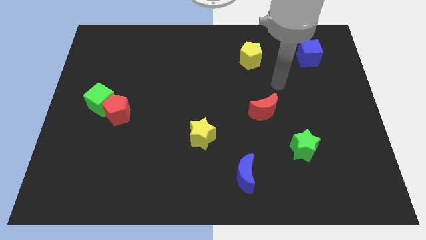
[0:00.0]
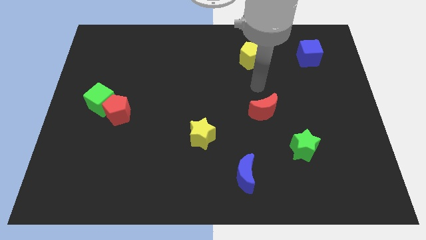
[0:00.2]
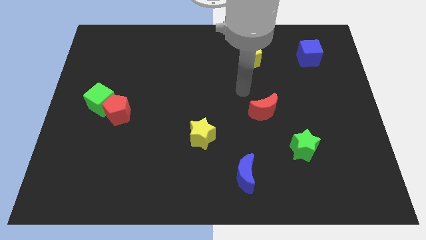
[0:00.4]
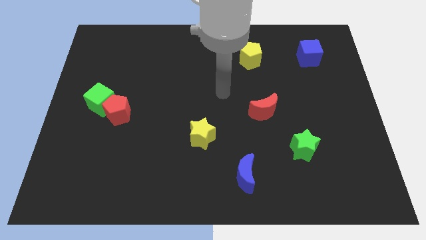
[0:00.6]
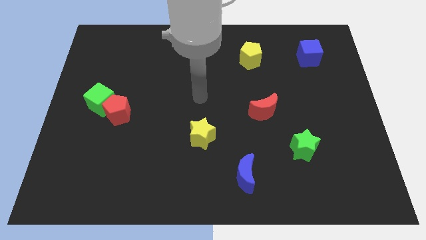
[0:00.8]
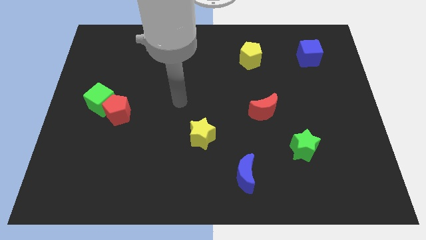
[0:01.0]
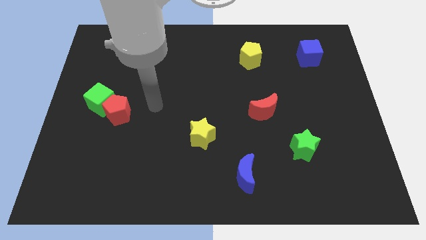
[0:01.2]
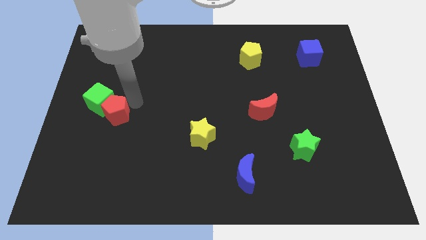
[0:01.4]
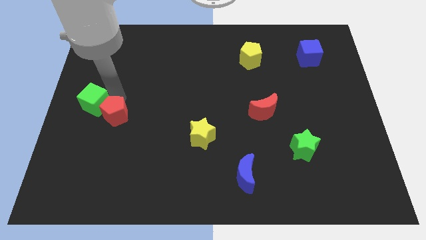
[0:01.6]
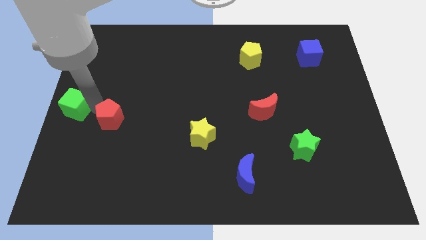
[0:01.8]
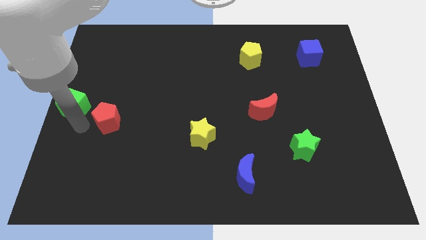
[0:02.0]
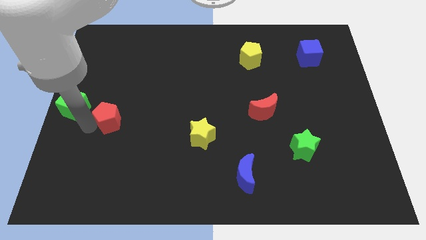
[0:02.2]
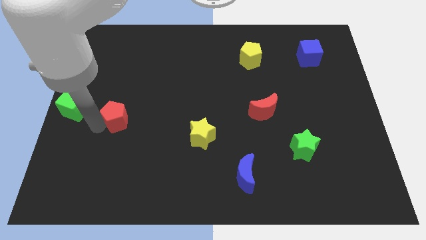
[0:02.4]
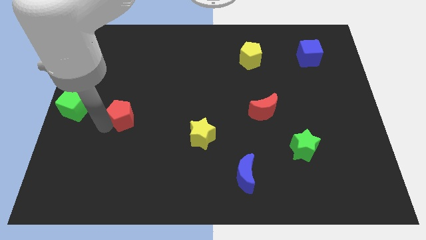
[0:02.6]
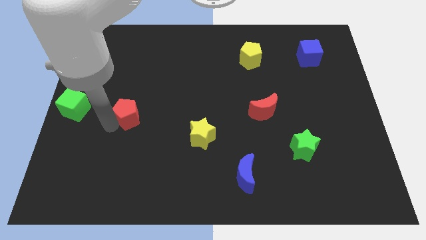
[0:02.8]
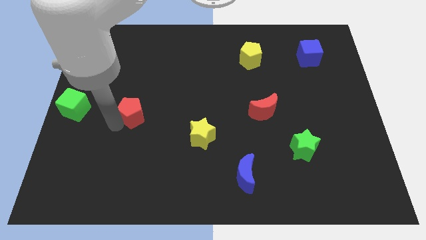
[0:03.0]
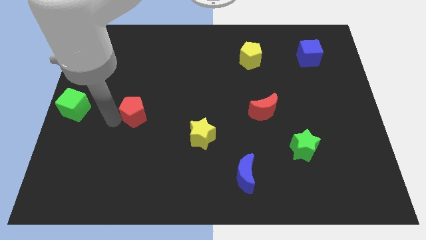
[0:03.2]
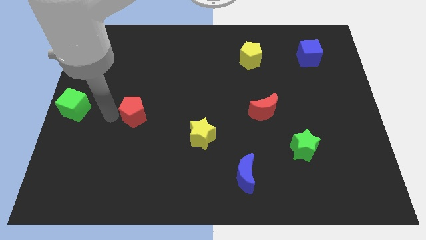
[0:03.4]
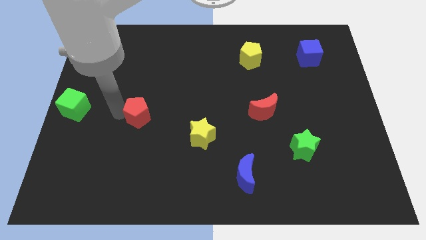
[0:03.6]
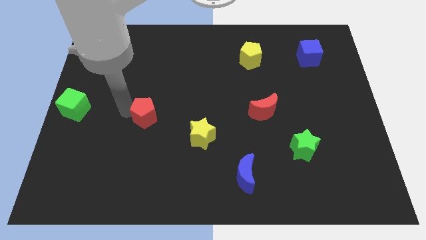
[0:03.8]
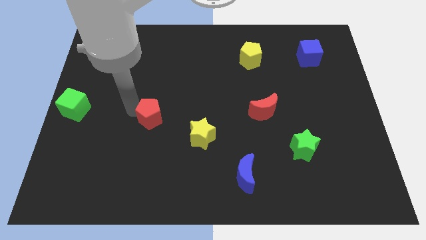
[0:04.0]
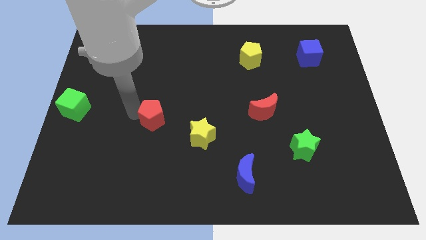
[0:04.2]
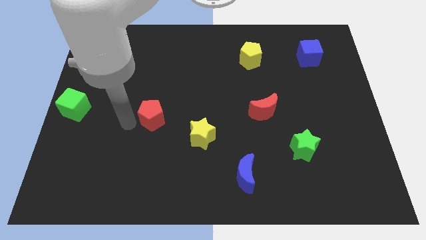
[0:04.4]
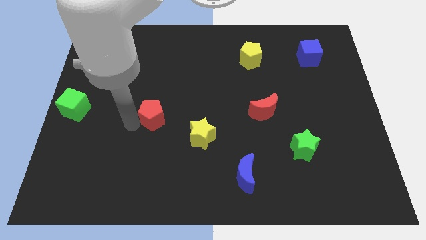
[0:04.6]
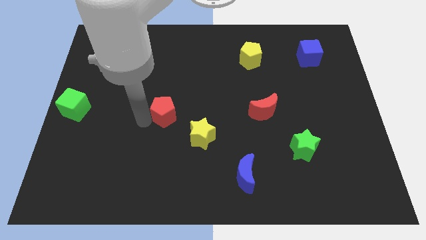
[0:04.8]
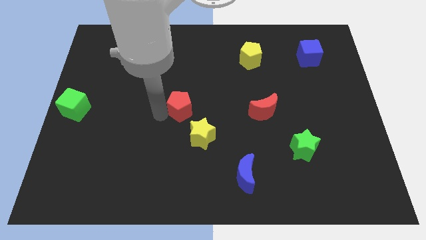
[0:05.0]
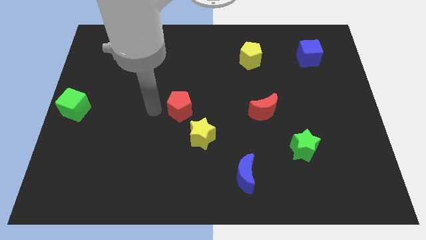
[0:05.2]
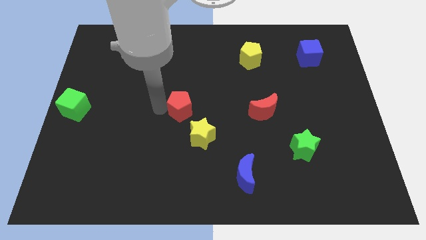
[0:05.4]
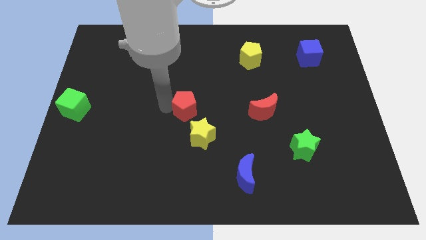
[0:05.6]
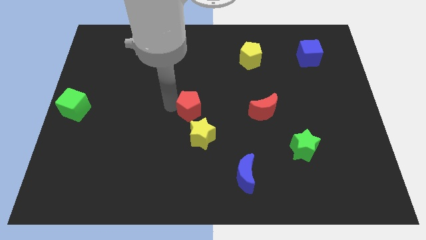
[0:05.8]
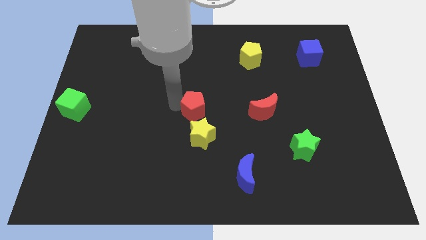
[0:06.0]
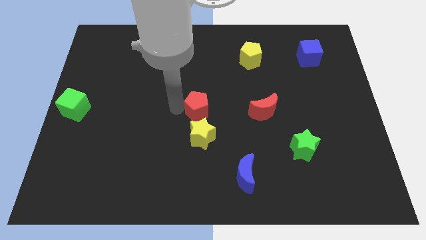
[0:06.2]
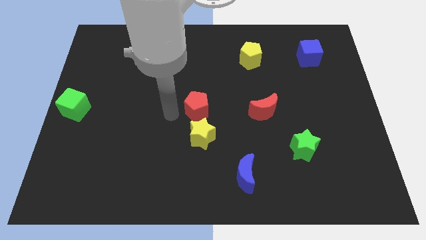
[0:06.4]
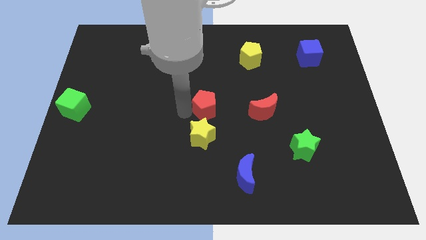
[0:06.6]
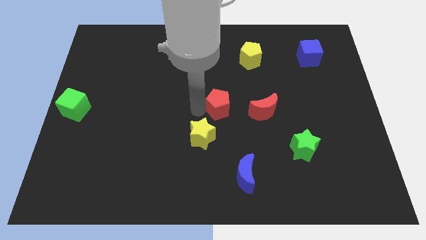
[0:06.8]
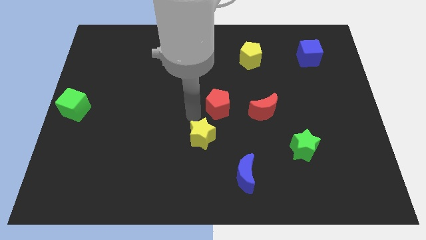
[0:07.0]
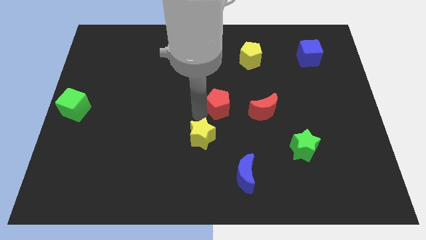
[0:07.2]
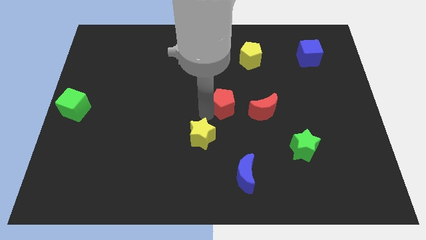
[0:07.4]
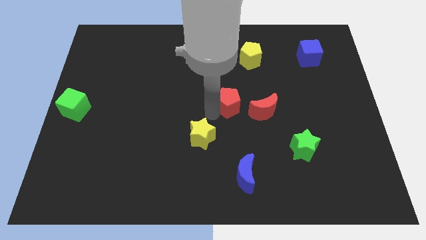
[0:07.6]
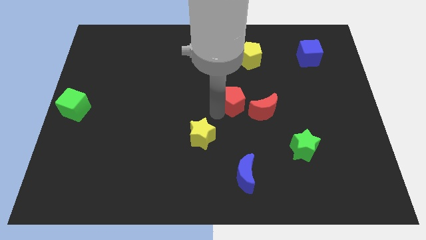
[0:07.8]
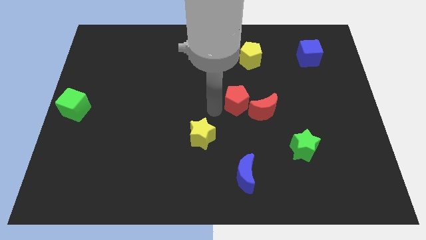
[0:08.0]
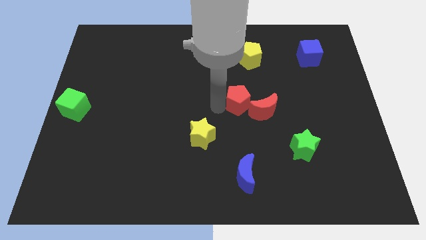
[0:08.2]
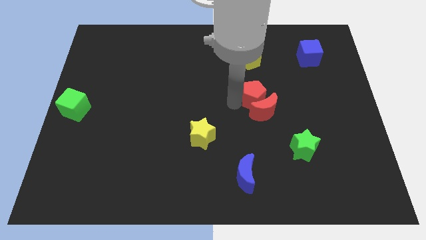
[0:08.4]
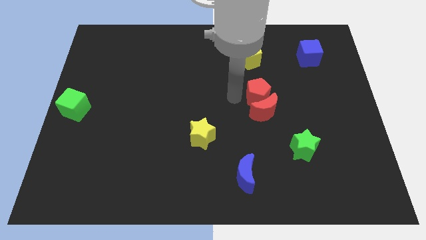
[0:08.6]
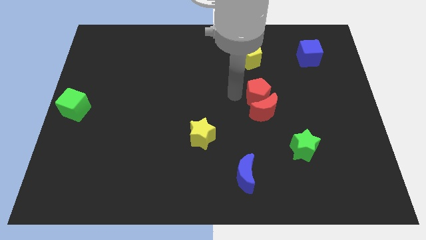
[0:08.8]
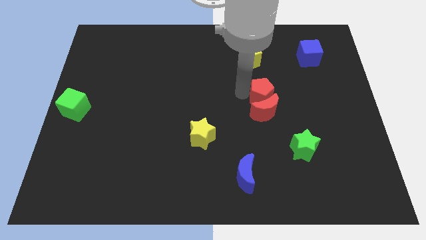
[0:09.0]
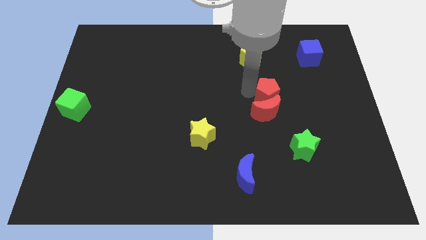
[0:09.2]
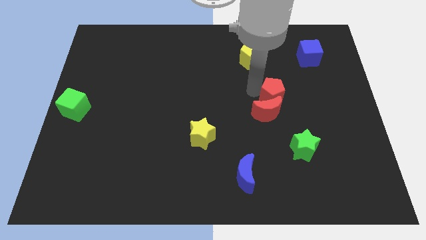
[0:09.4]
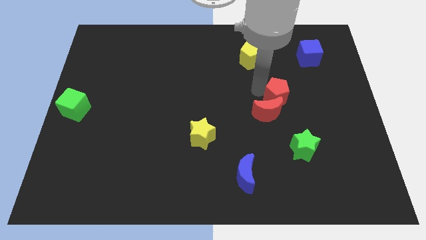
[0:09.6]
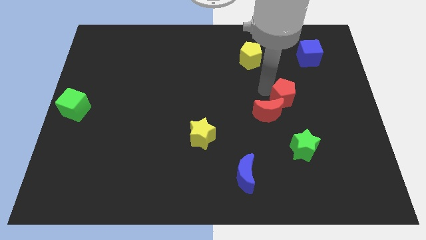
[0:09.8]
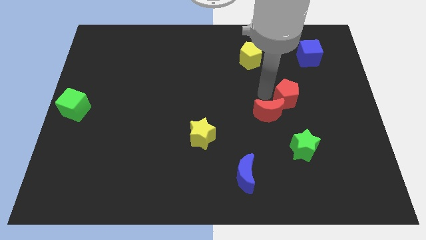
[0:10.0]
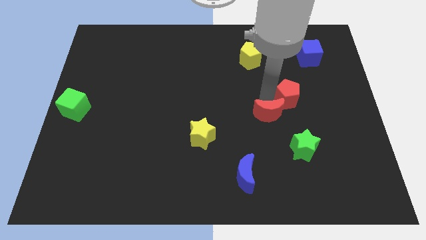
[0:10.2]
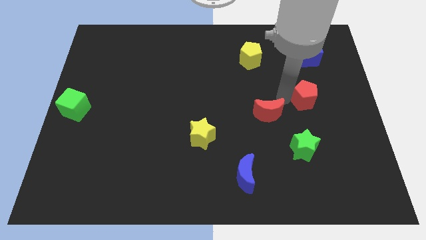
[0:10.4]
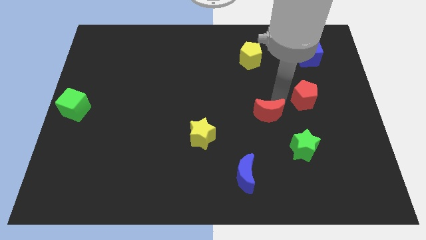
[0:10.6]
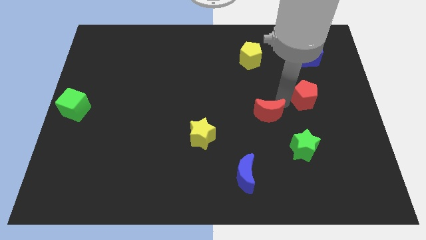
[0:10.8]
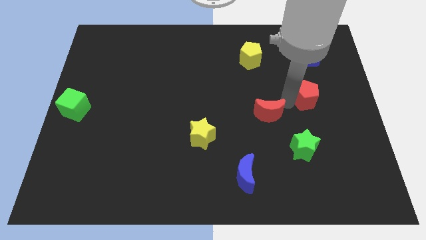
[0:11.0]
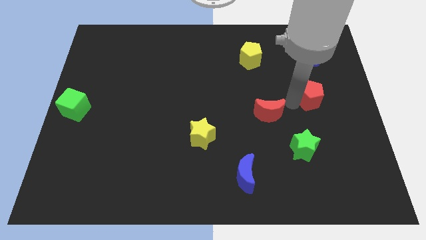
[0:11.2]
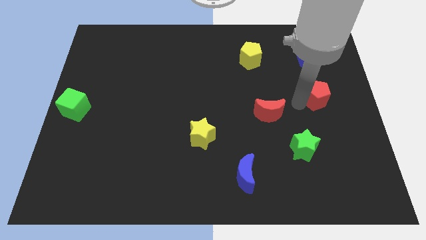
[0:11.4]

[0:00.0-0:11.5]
push the red pentagon to the right side of the board
